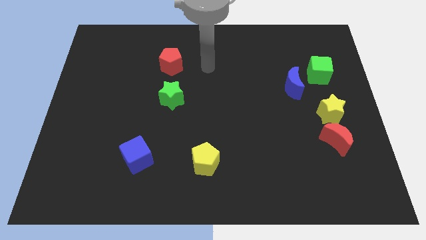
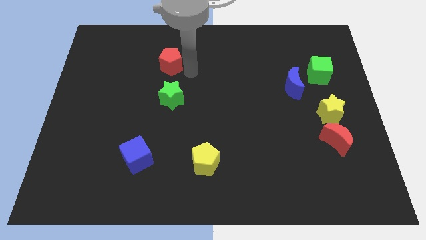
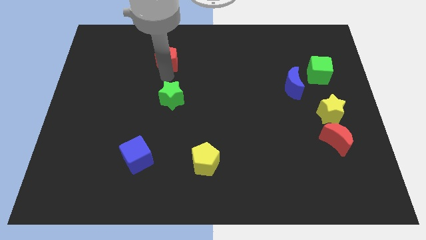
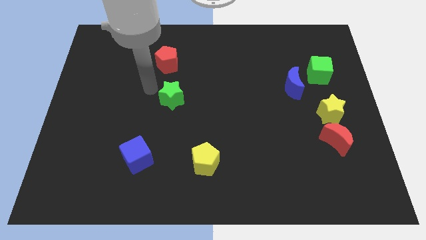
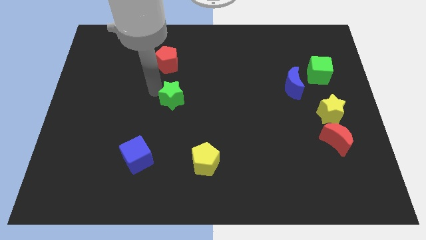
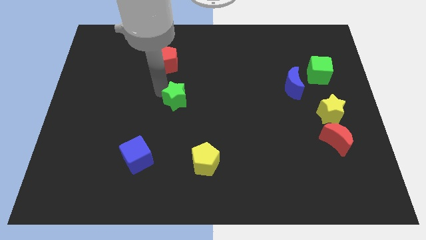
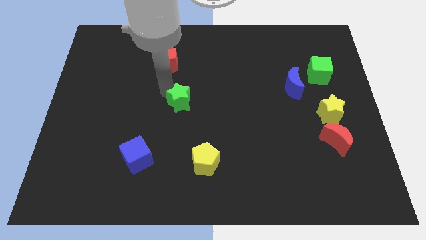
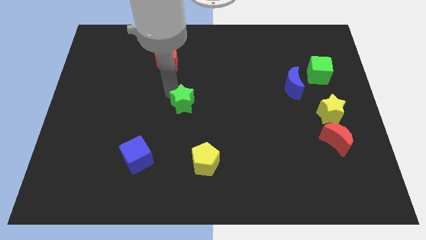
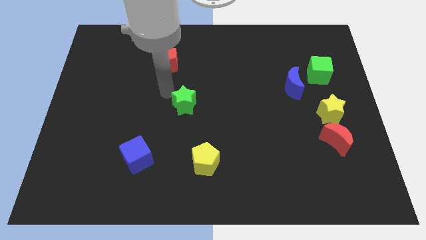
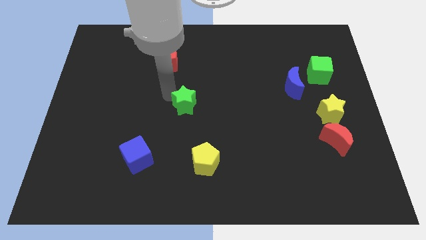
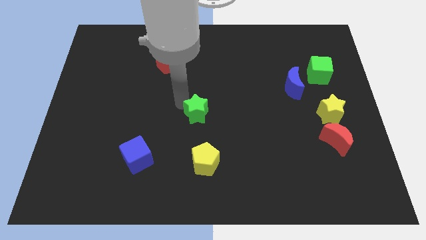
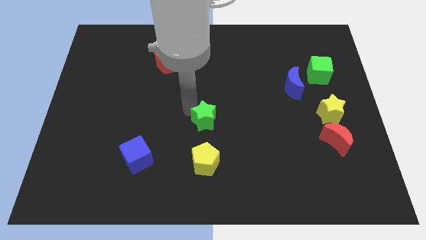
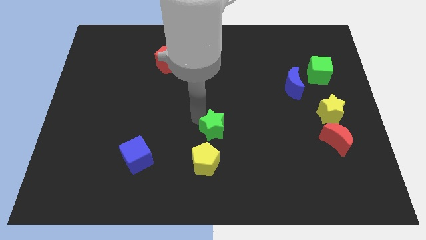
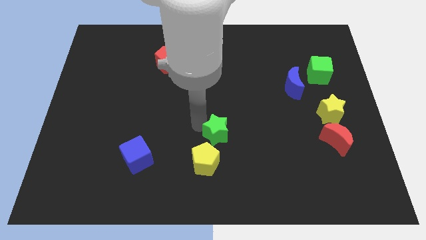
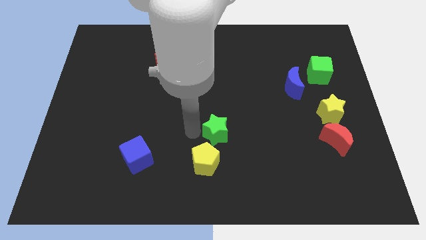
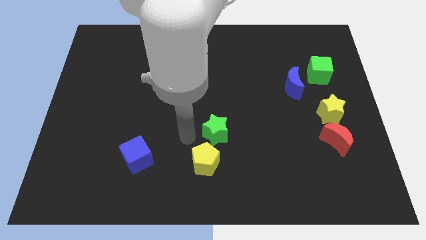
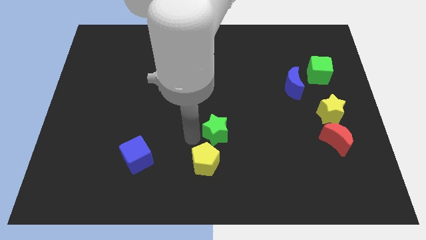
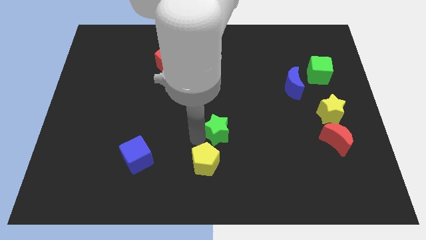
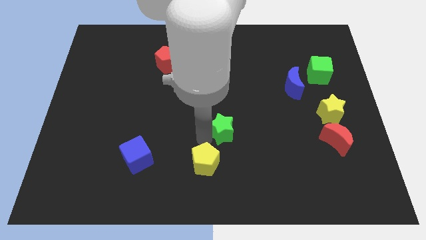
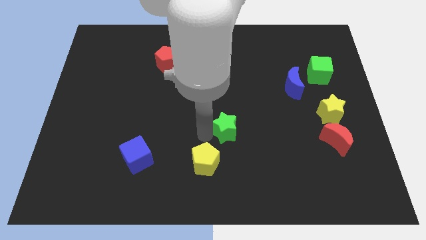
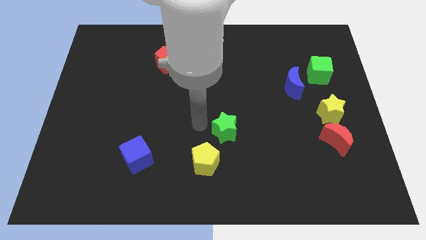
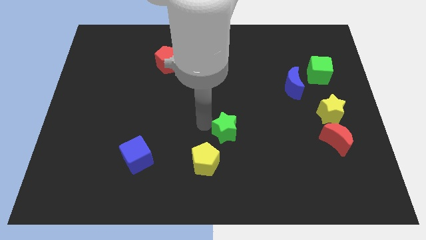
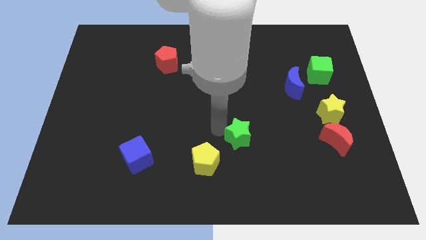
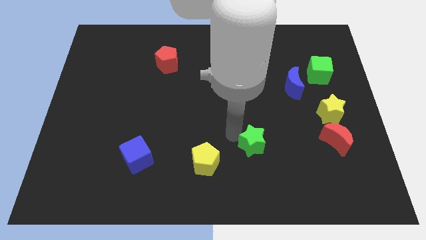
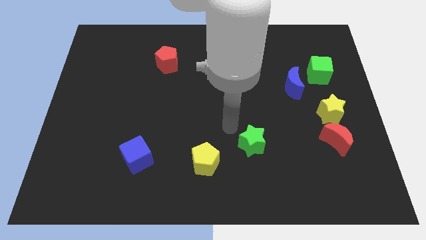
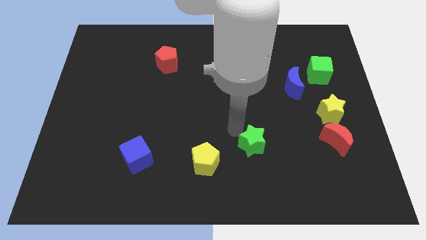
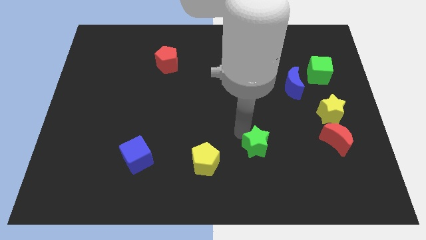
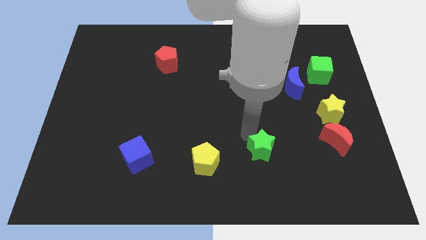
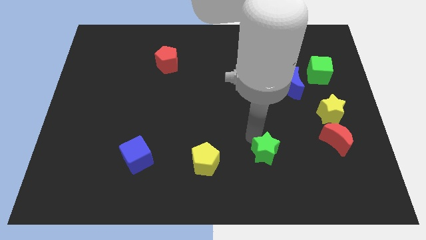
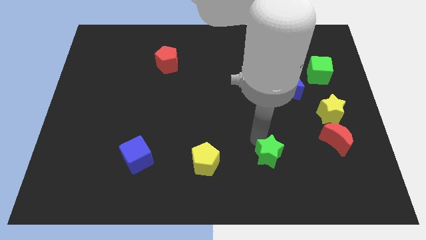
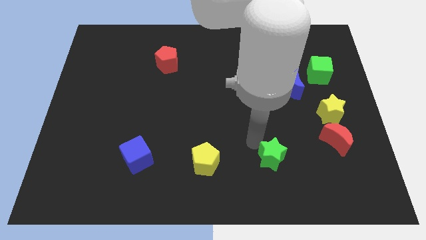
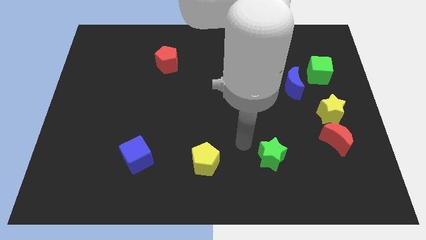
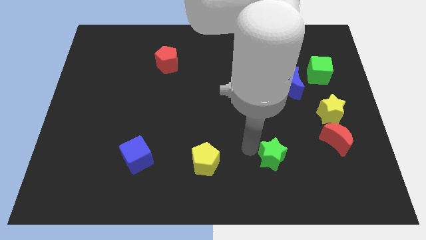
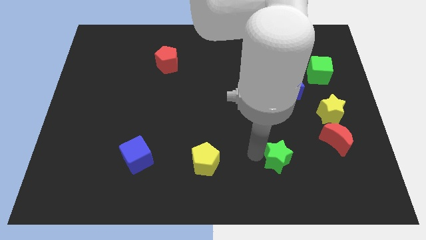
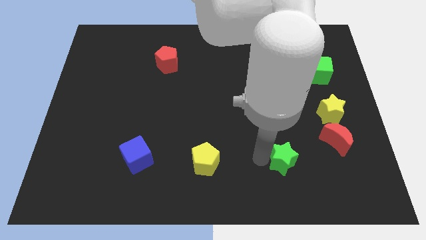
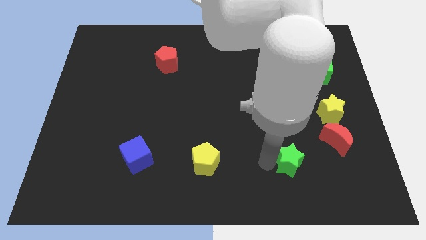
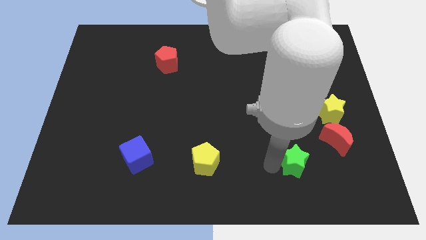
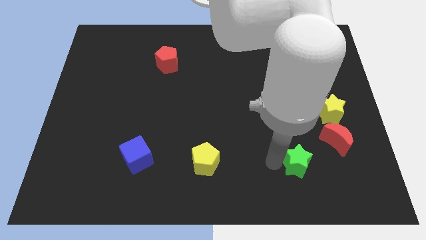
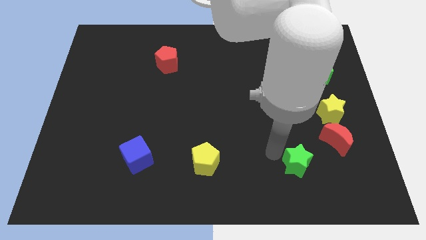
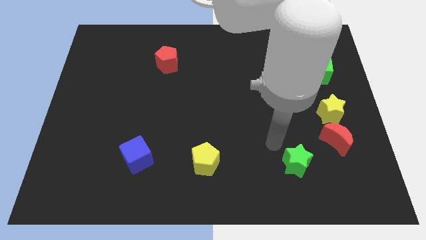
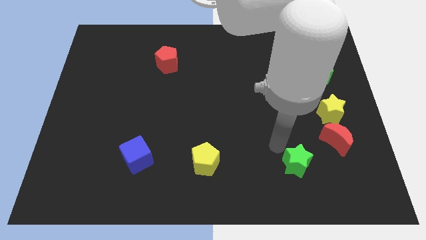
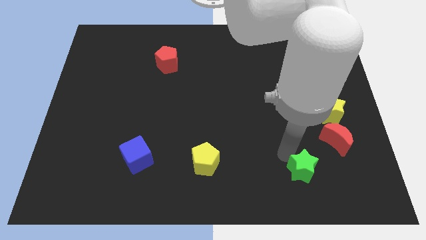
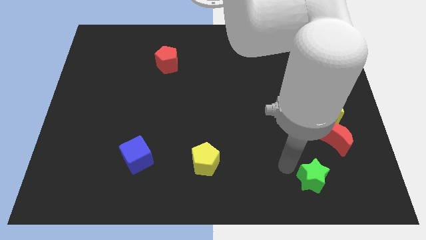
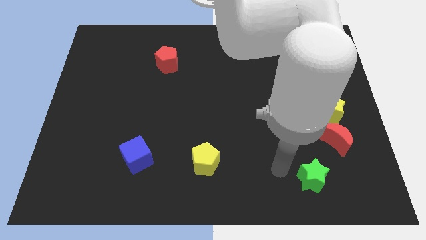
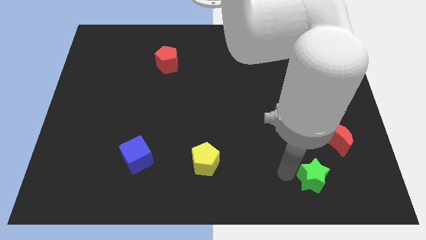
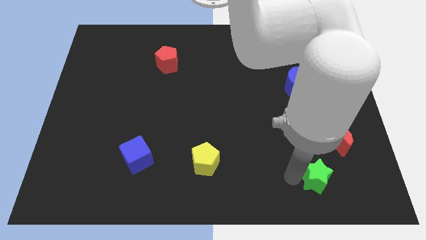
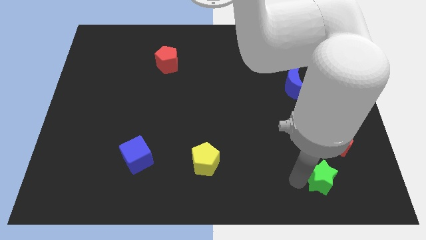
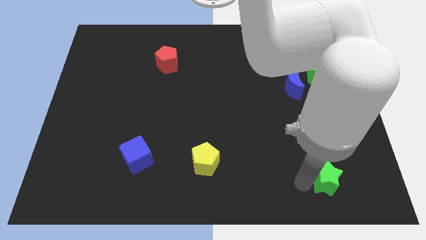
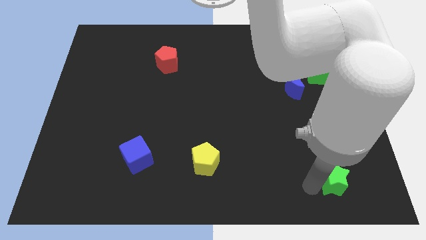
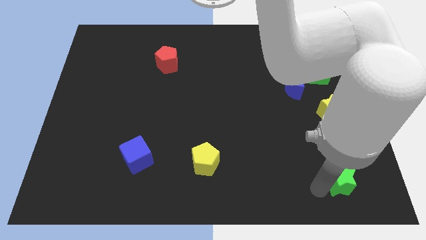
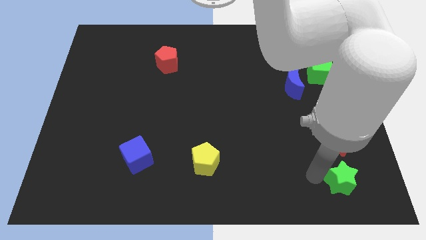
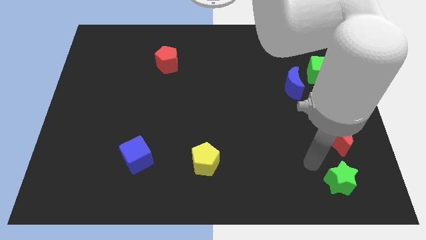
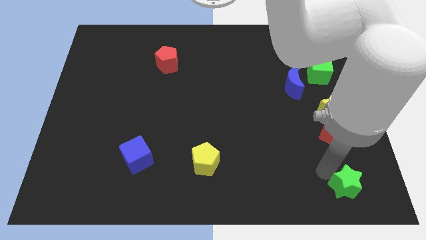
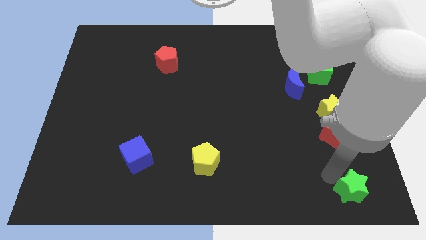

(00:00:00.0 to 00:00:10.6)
push the green star to the bottom right of the board

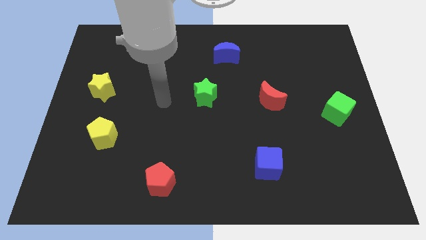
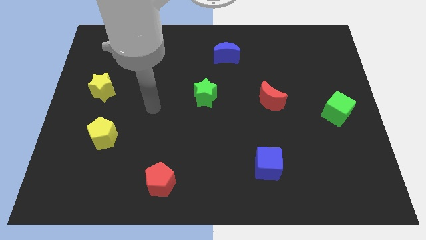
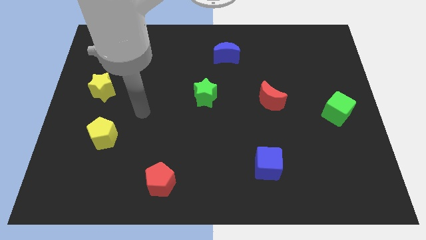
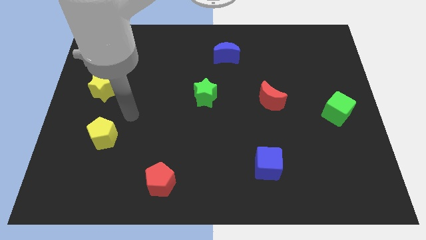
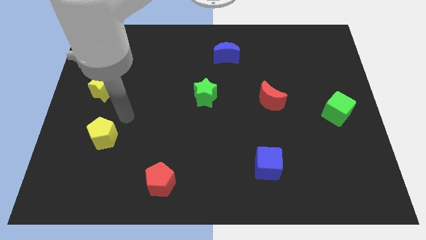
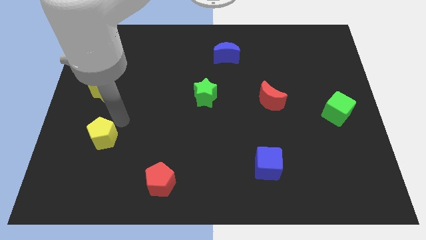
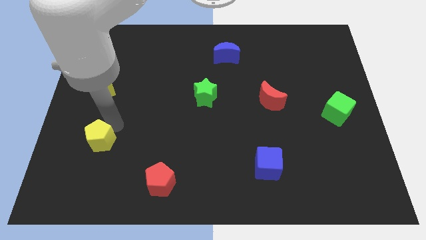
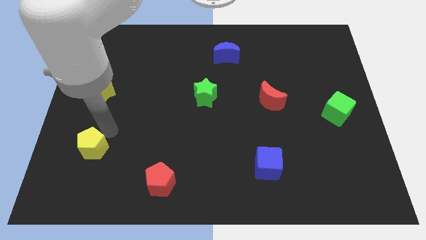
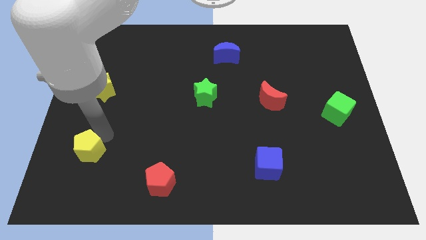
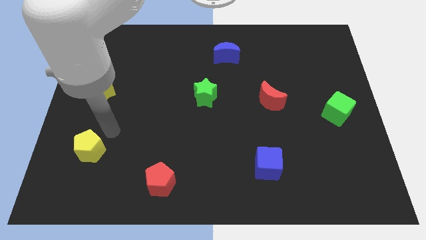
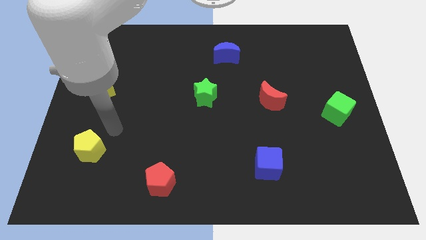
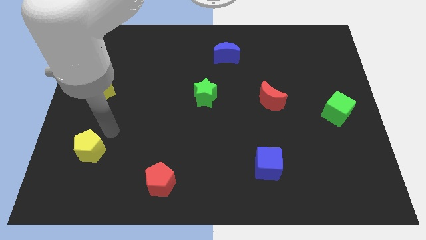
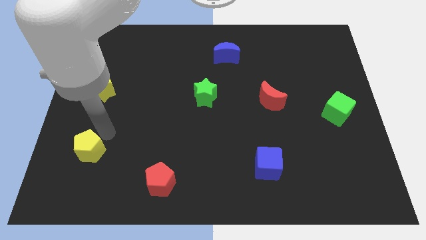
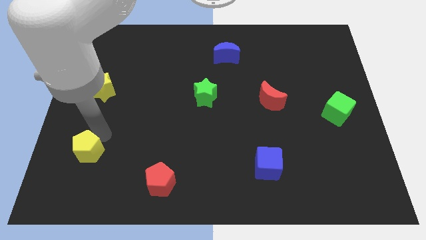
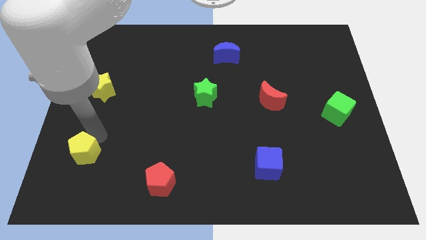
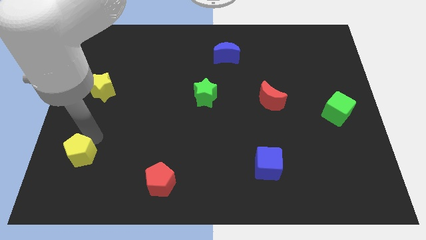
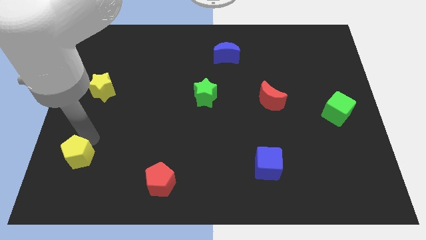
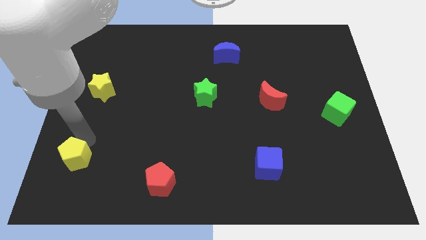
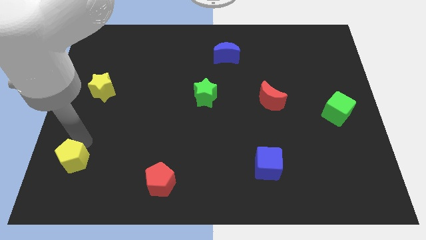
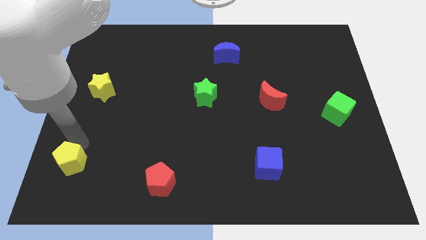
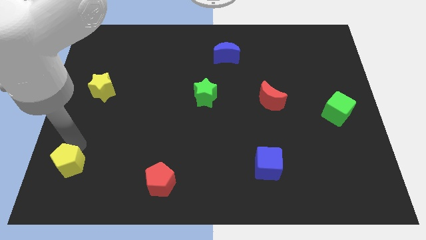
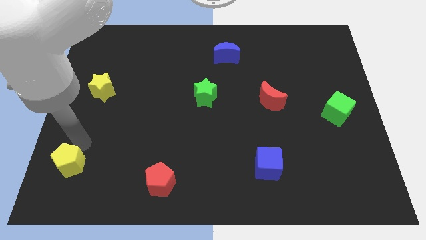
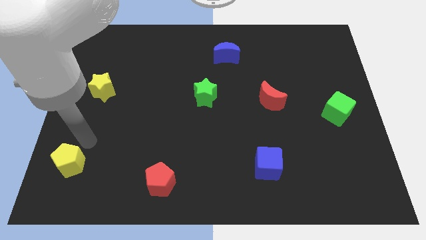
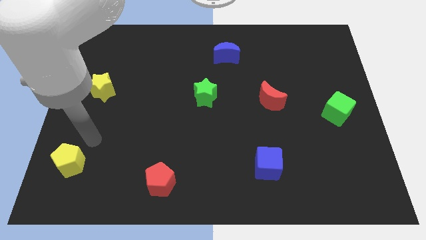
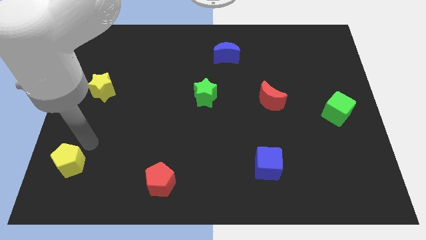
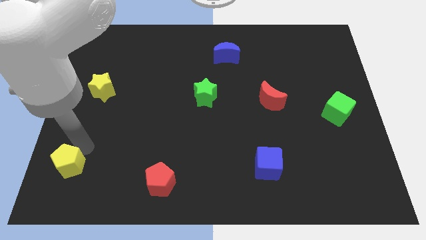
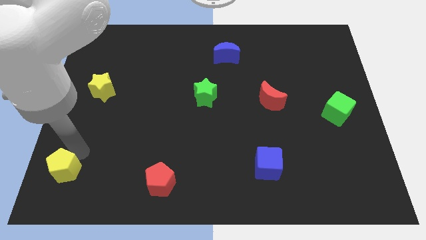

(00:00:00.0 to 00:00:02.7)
move the yellow pentagon to the bottom left of the board
